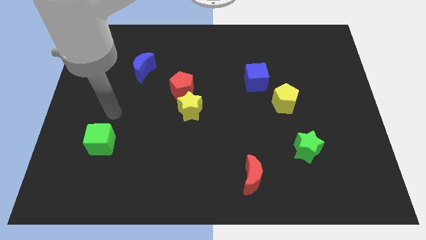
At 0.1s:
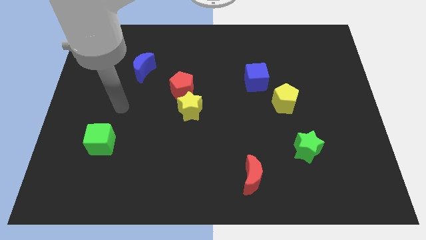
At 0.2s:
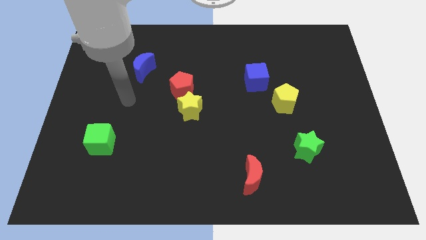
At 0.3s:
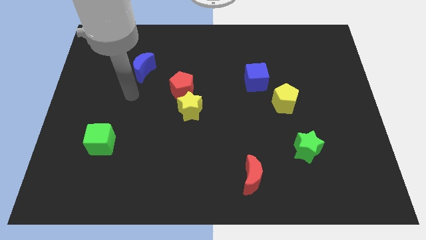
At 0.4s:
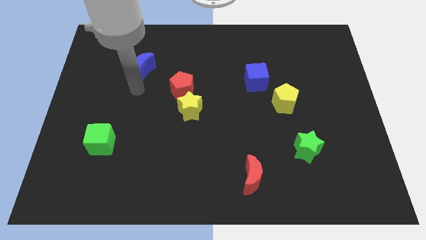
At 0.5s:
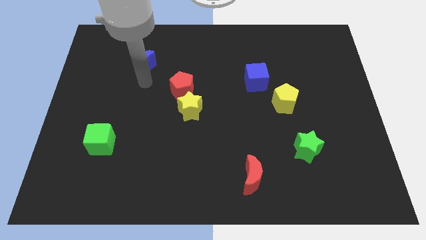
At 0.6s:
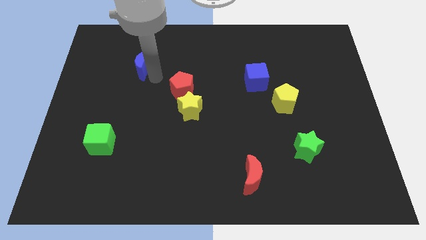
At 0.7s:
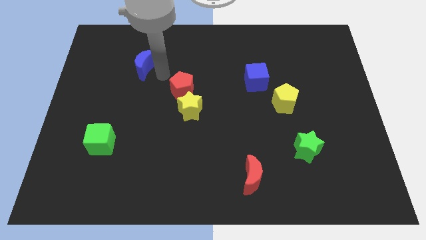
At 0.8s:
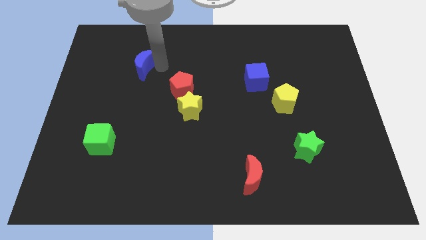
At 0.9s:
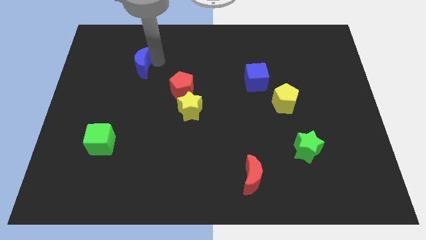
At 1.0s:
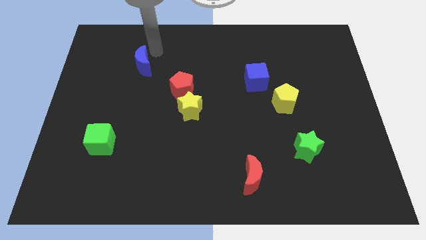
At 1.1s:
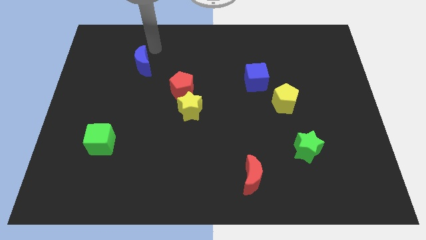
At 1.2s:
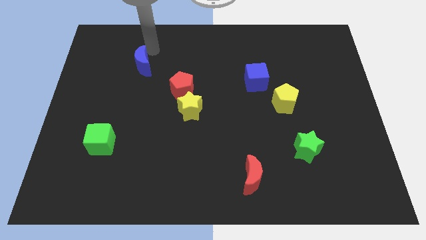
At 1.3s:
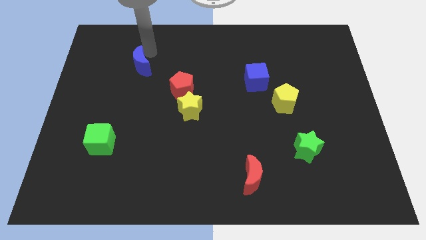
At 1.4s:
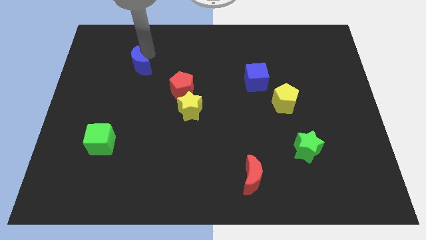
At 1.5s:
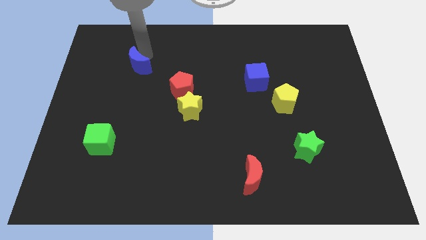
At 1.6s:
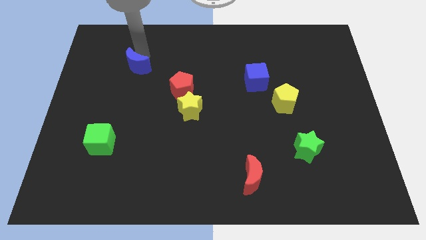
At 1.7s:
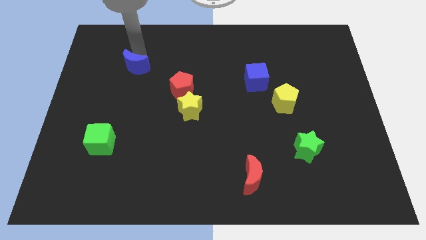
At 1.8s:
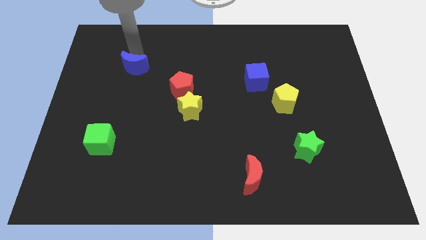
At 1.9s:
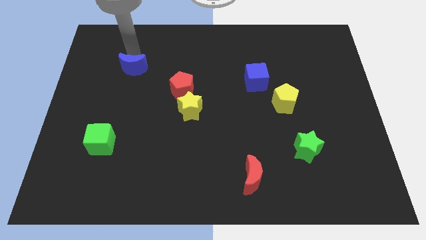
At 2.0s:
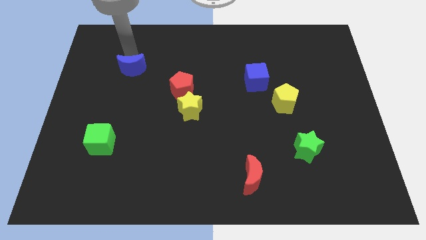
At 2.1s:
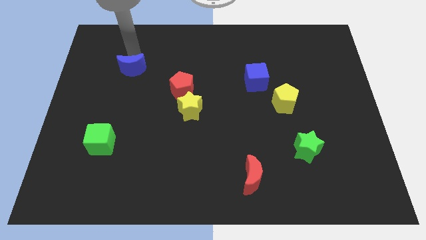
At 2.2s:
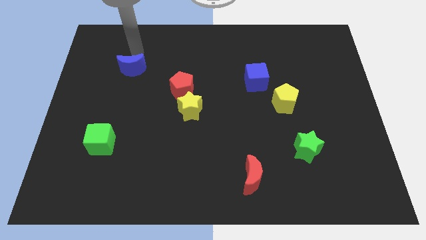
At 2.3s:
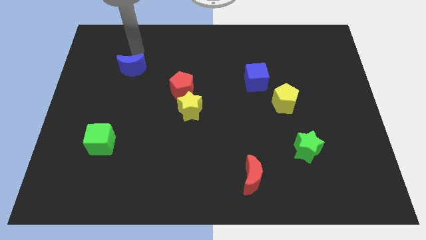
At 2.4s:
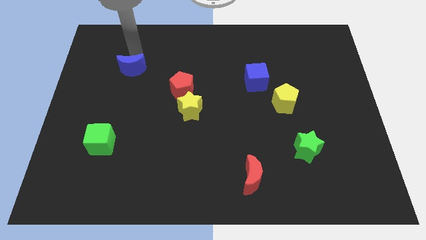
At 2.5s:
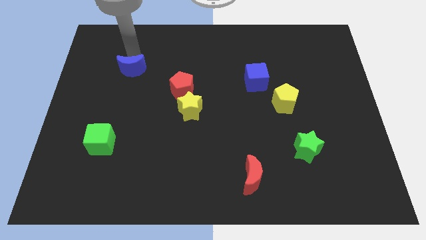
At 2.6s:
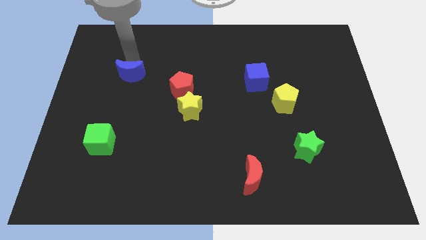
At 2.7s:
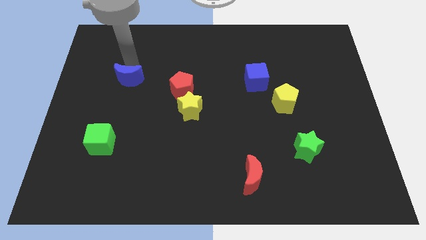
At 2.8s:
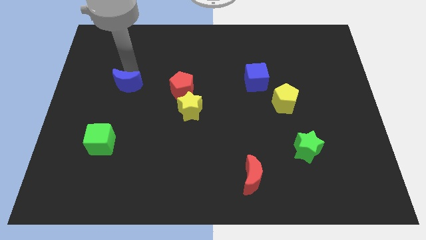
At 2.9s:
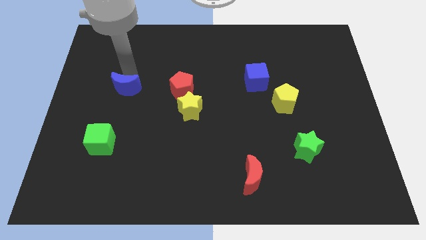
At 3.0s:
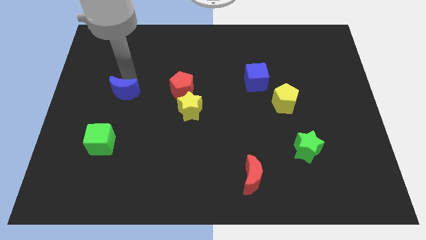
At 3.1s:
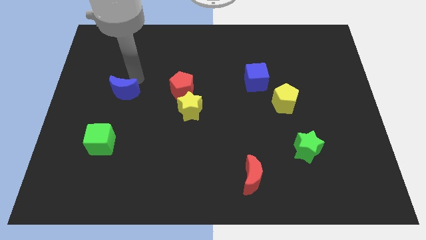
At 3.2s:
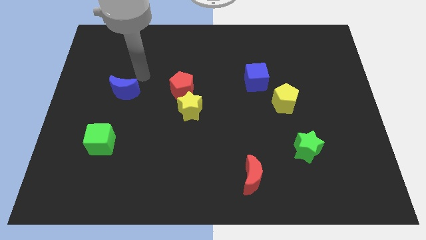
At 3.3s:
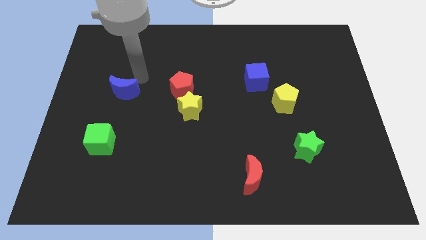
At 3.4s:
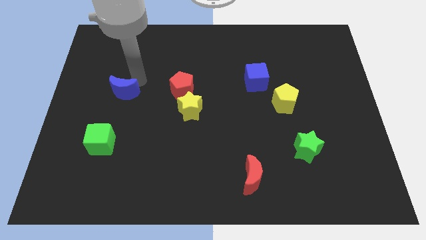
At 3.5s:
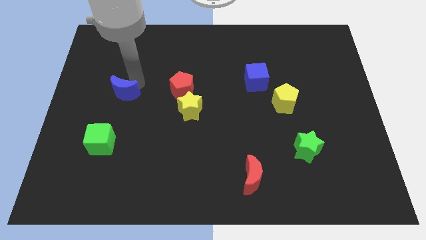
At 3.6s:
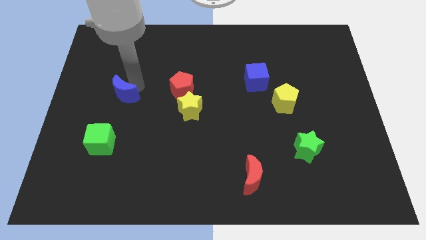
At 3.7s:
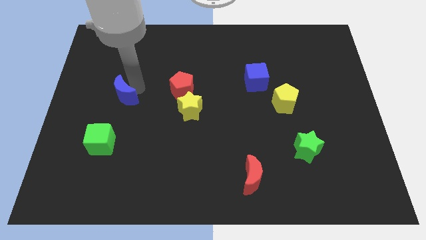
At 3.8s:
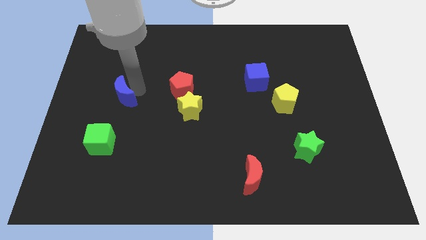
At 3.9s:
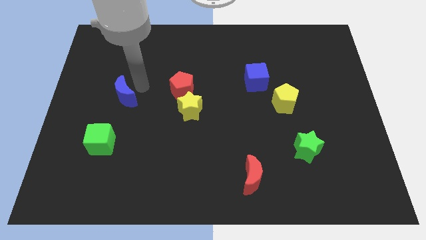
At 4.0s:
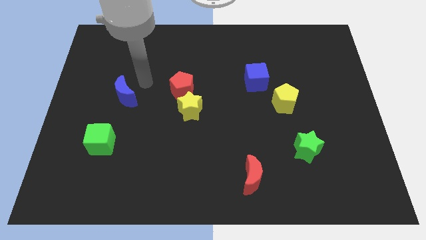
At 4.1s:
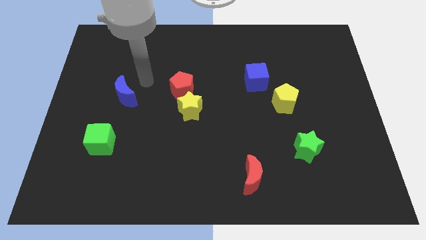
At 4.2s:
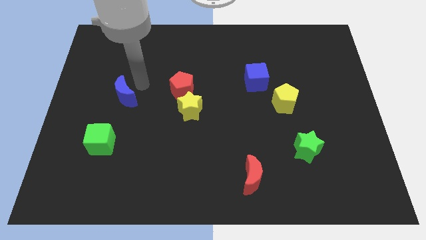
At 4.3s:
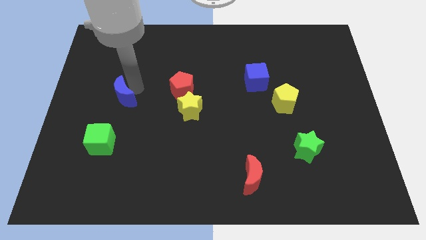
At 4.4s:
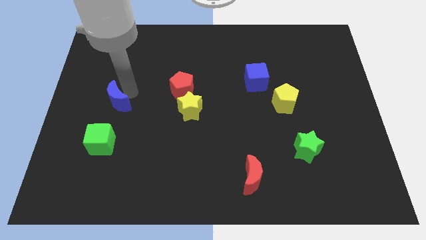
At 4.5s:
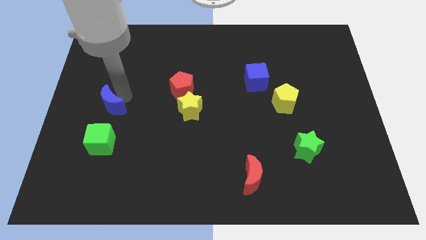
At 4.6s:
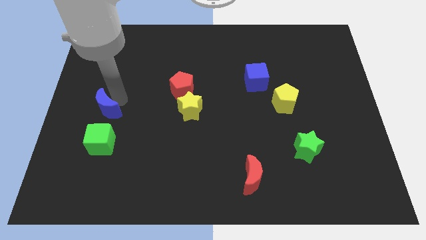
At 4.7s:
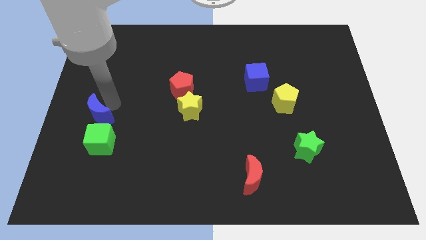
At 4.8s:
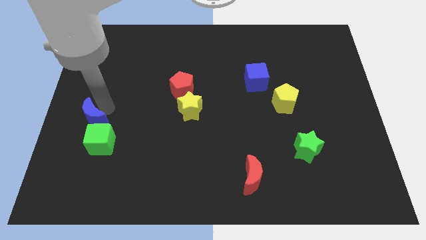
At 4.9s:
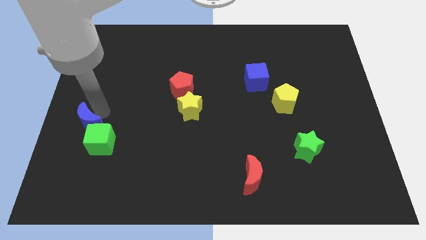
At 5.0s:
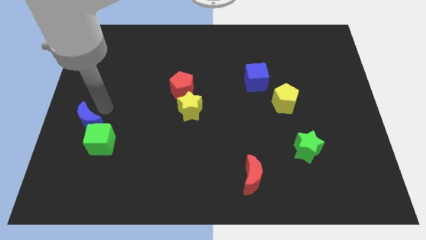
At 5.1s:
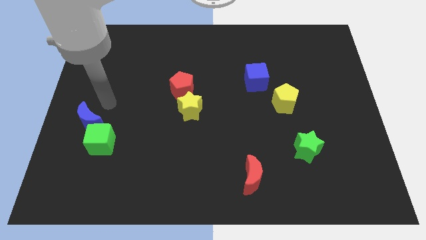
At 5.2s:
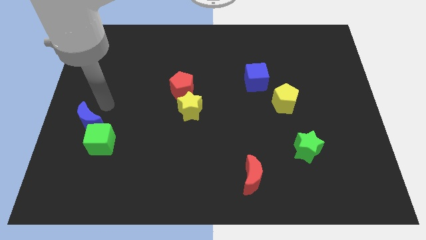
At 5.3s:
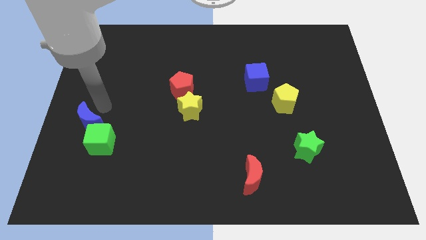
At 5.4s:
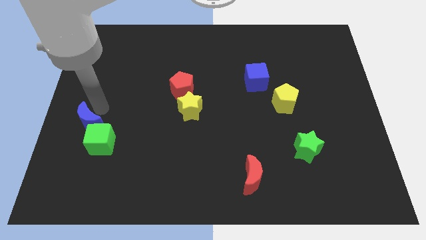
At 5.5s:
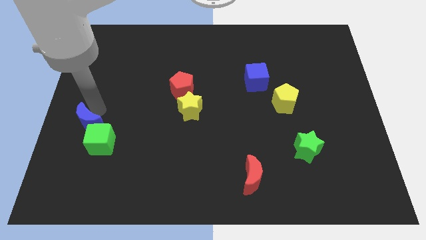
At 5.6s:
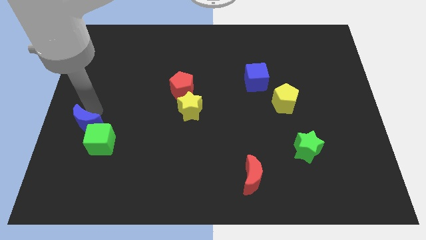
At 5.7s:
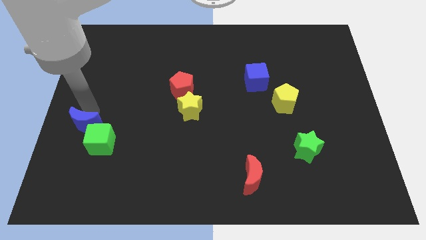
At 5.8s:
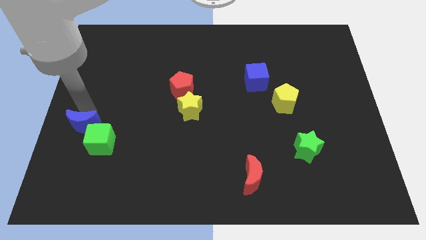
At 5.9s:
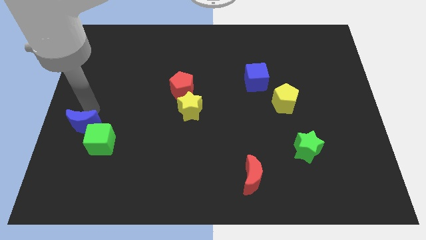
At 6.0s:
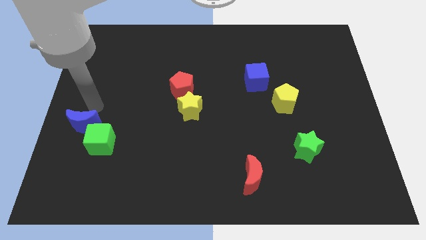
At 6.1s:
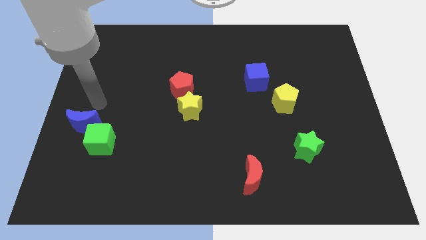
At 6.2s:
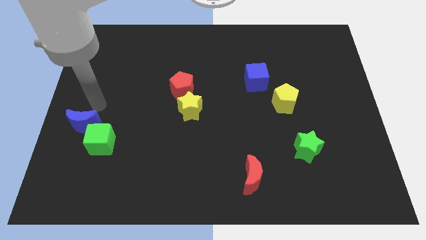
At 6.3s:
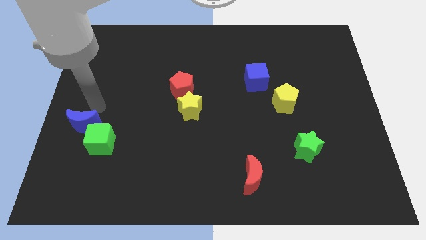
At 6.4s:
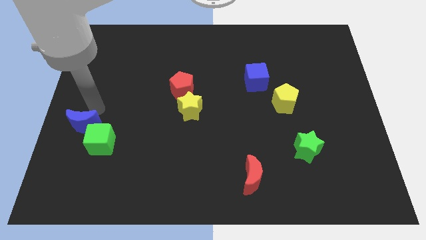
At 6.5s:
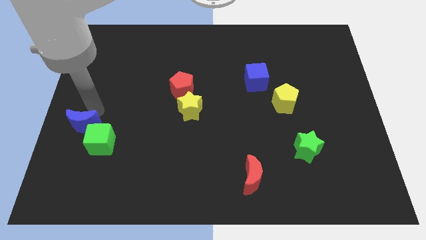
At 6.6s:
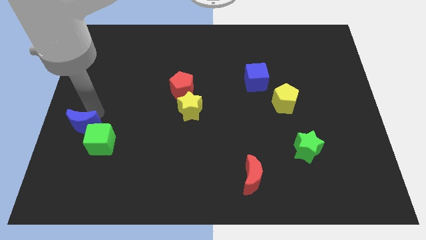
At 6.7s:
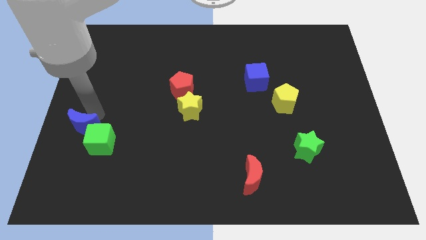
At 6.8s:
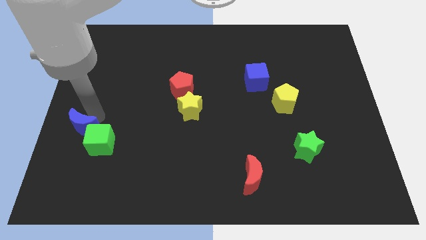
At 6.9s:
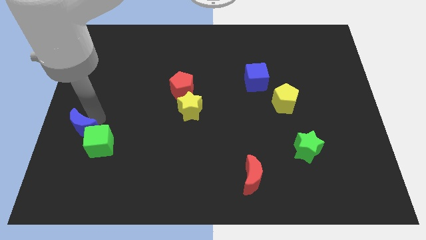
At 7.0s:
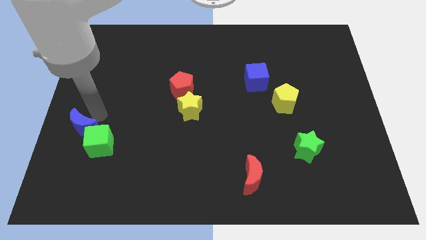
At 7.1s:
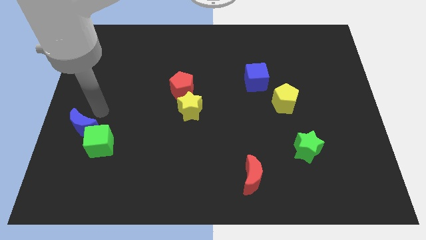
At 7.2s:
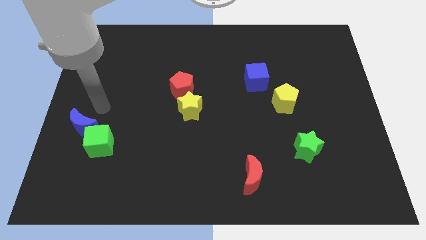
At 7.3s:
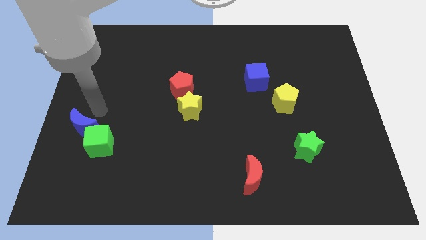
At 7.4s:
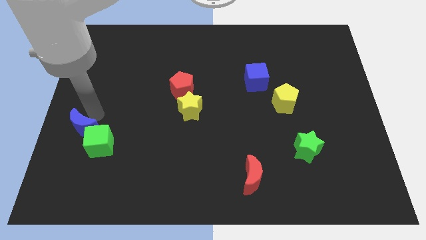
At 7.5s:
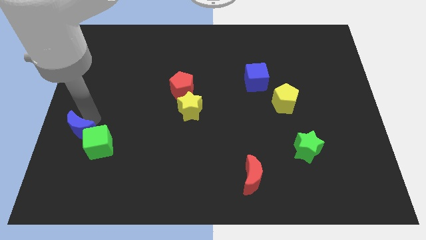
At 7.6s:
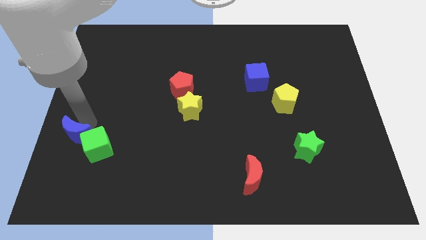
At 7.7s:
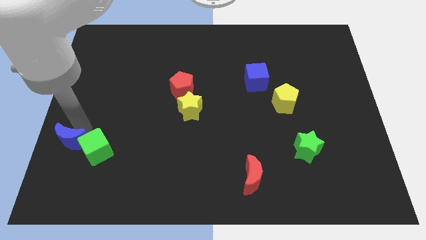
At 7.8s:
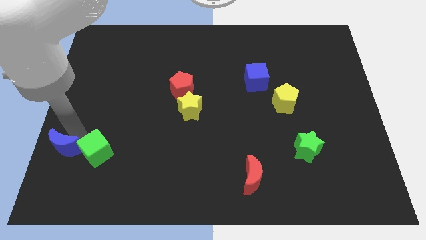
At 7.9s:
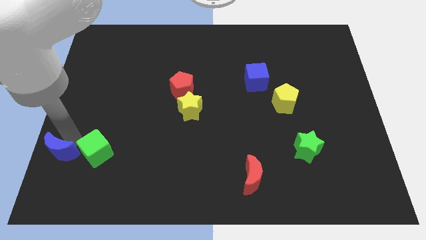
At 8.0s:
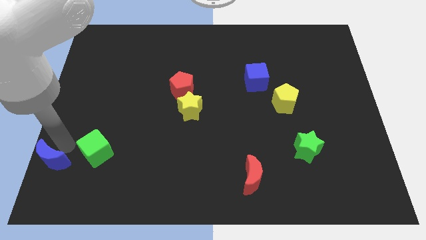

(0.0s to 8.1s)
push the blue moon to the lower left corner
